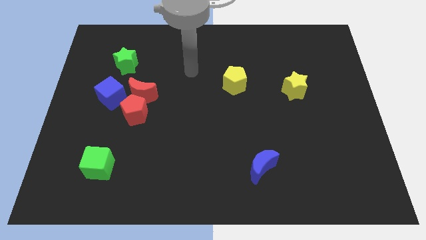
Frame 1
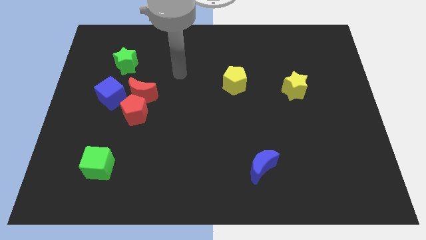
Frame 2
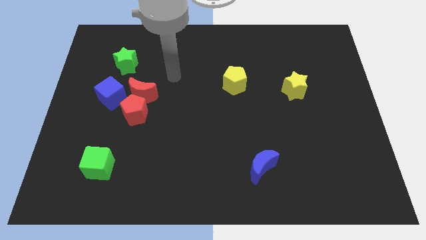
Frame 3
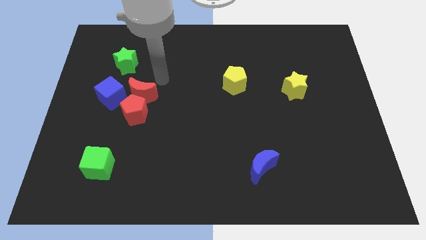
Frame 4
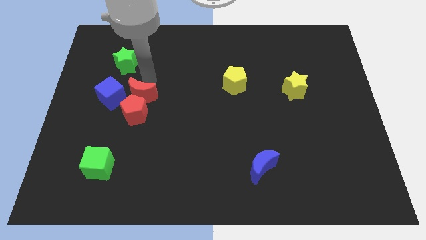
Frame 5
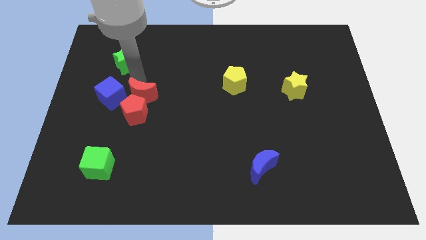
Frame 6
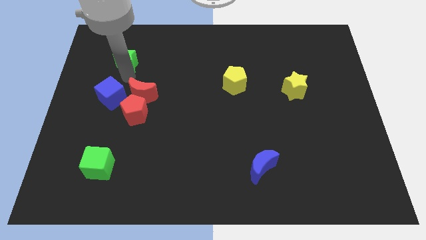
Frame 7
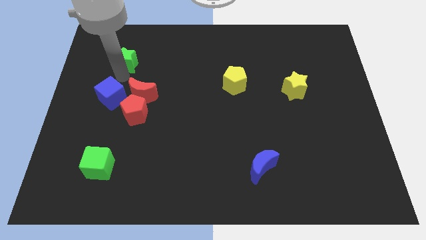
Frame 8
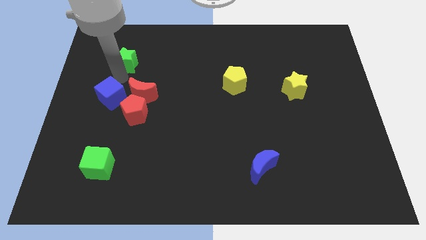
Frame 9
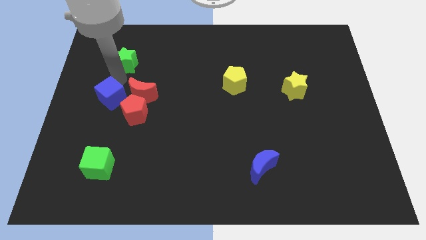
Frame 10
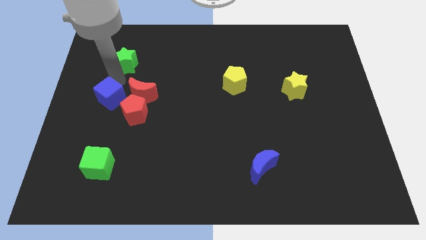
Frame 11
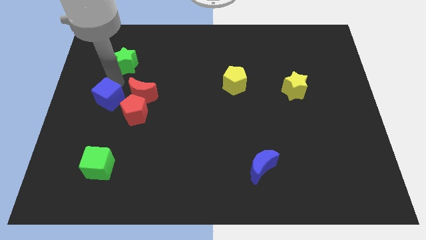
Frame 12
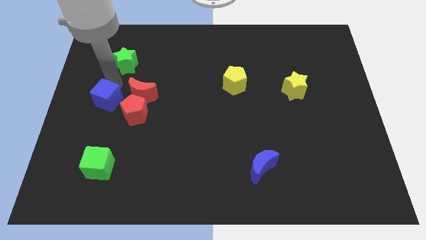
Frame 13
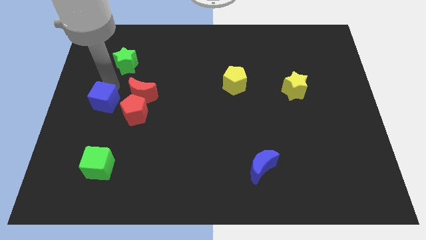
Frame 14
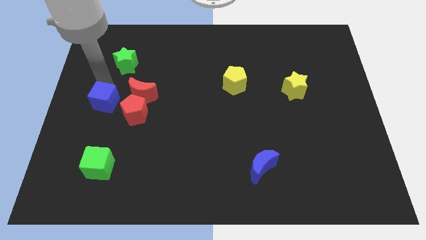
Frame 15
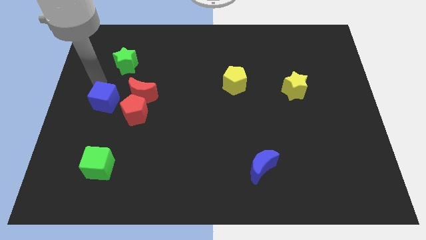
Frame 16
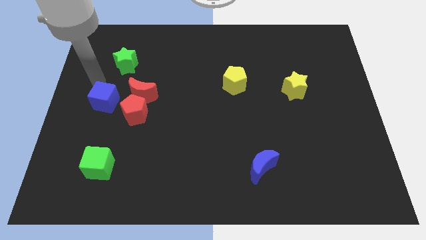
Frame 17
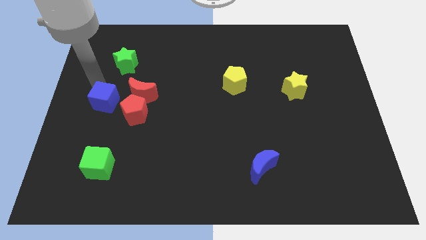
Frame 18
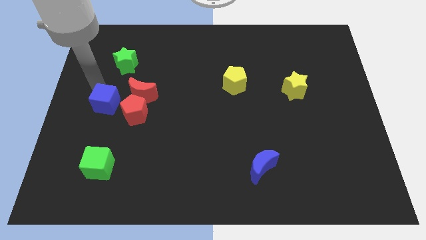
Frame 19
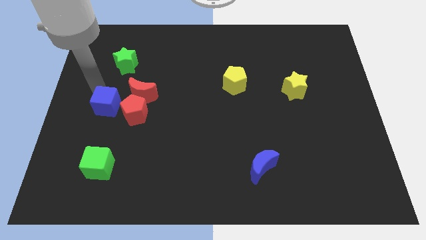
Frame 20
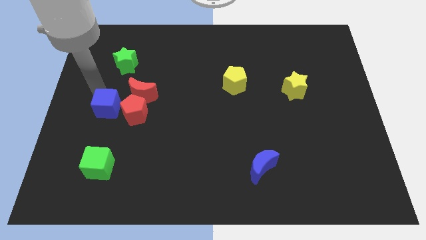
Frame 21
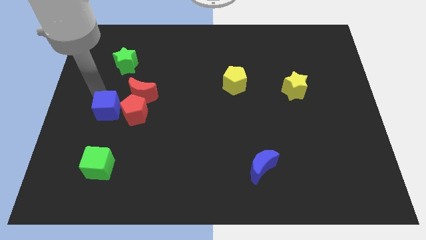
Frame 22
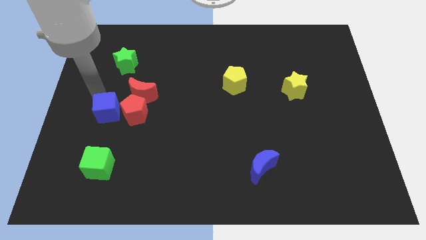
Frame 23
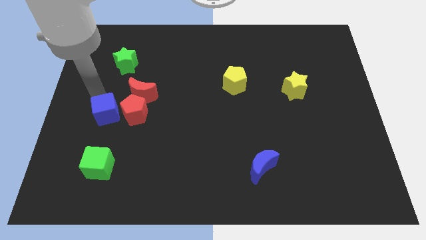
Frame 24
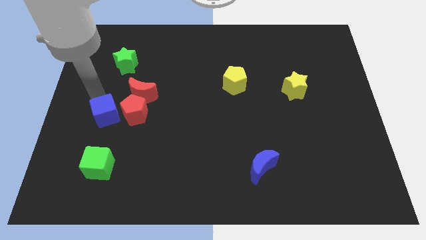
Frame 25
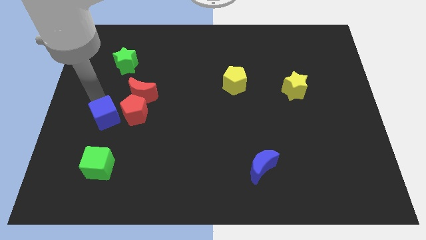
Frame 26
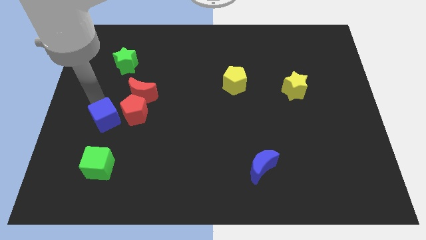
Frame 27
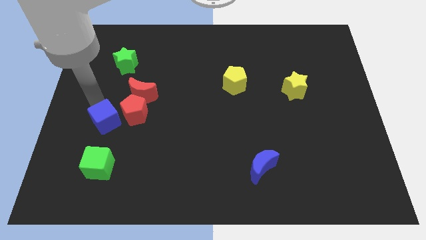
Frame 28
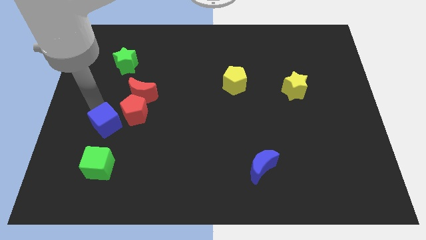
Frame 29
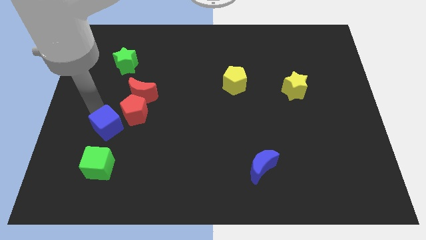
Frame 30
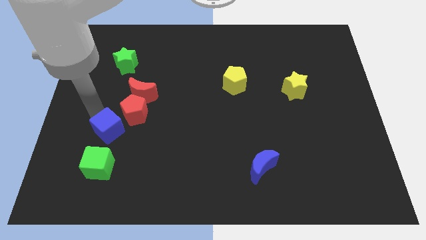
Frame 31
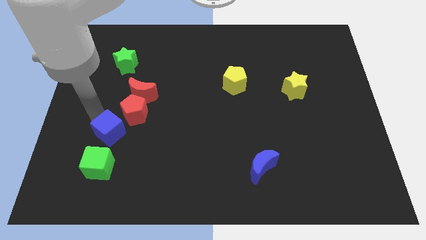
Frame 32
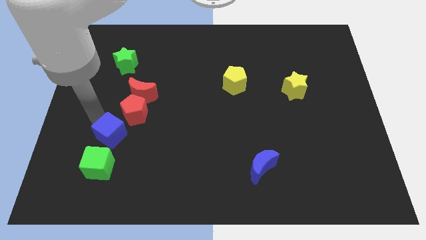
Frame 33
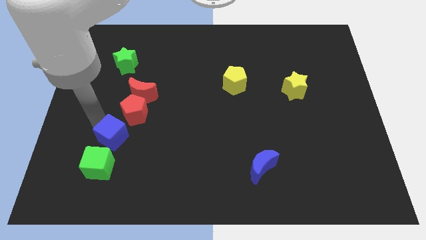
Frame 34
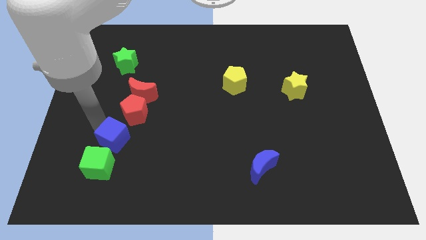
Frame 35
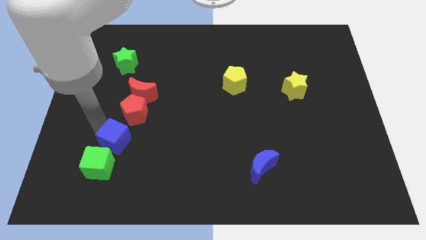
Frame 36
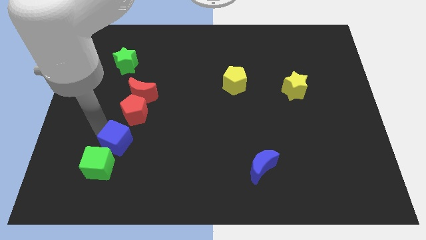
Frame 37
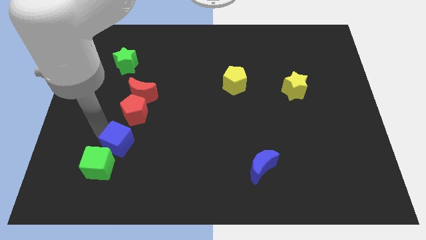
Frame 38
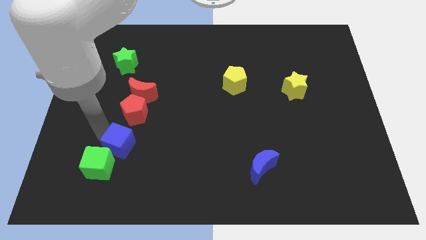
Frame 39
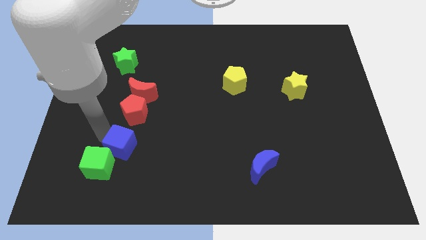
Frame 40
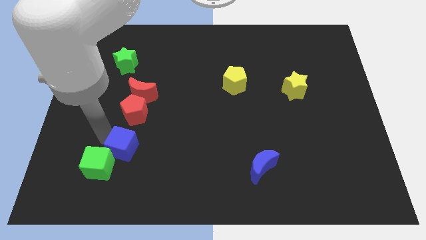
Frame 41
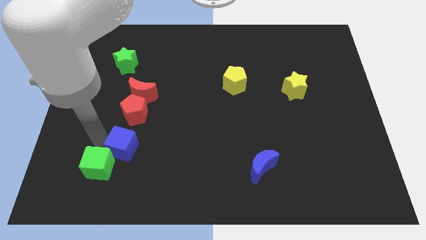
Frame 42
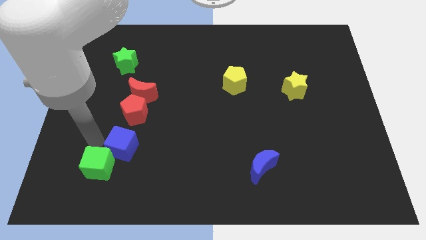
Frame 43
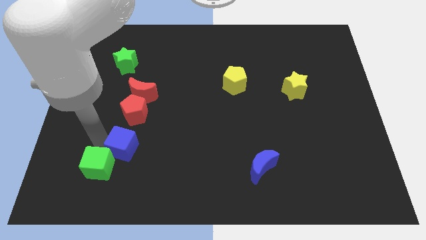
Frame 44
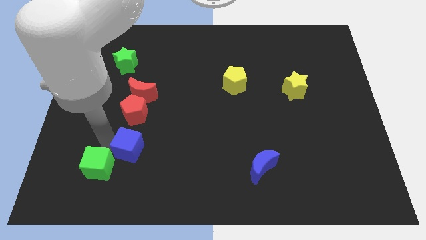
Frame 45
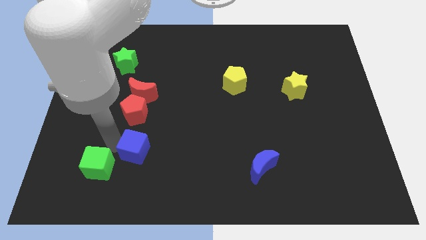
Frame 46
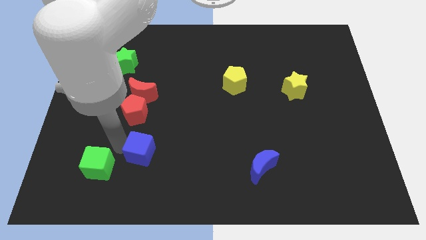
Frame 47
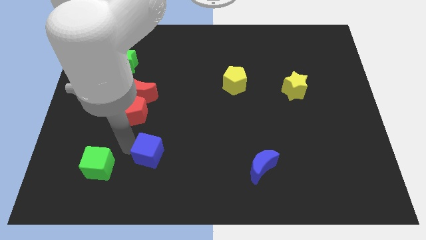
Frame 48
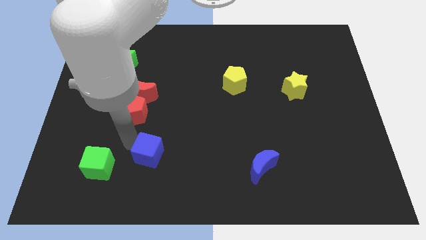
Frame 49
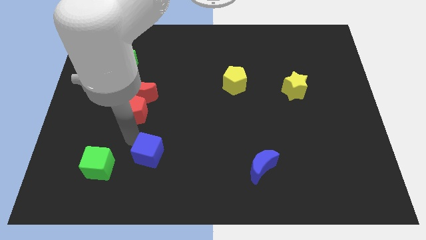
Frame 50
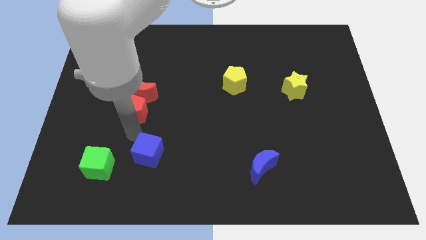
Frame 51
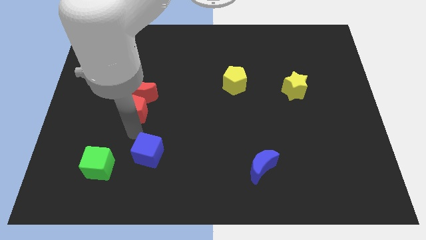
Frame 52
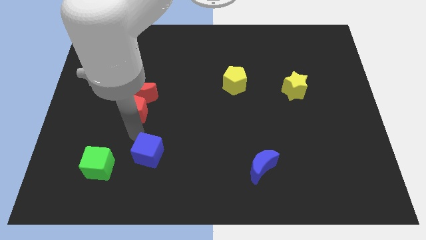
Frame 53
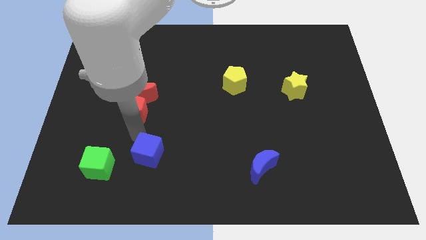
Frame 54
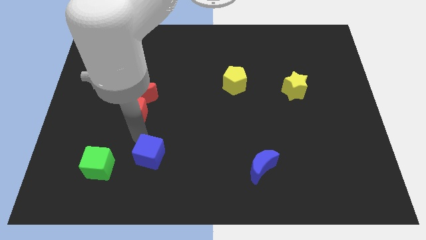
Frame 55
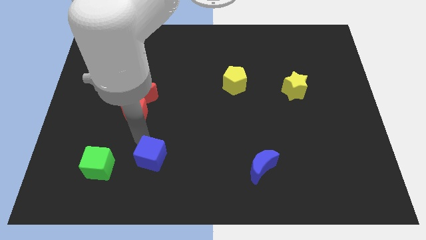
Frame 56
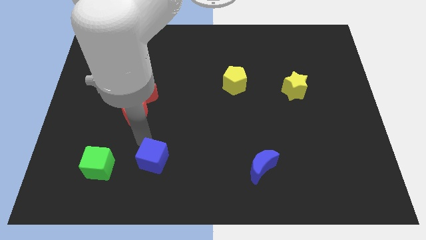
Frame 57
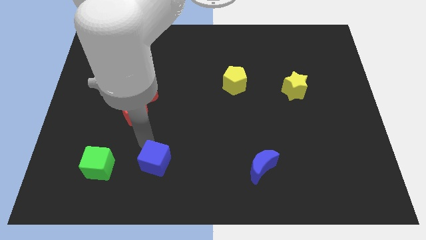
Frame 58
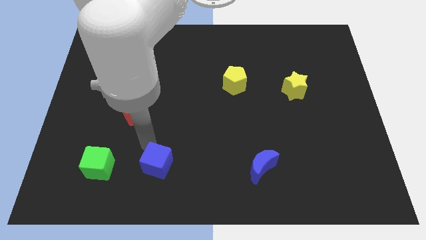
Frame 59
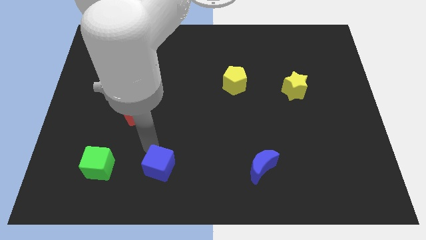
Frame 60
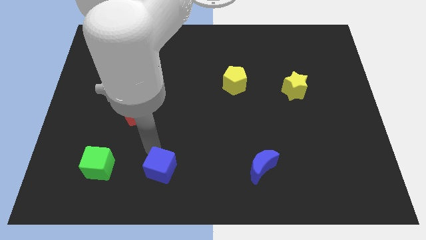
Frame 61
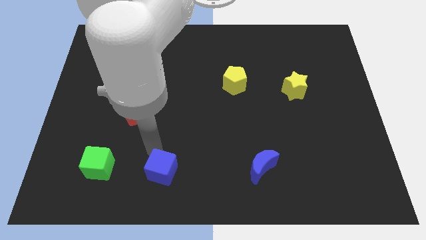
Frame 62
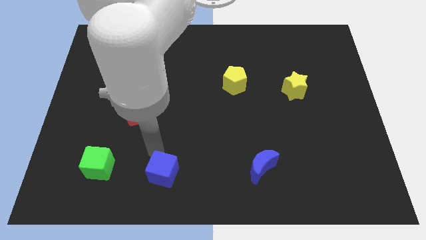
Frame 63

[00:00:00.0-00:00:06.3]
push the blue cube to the bottom side

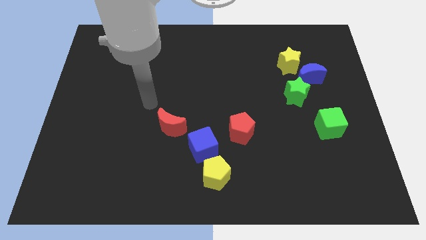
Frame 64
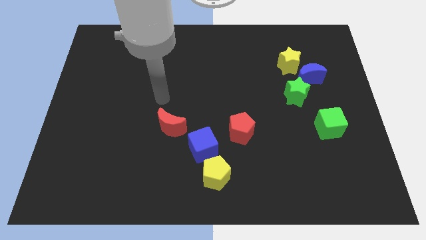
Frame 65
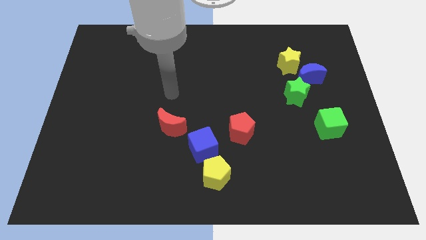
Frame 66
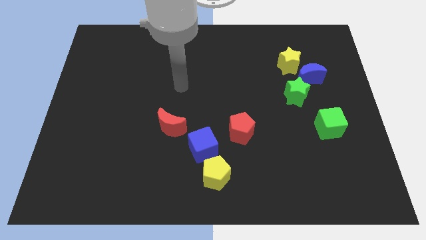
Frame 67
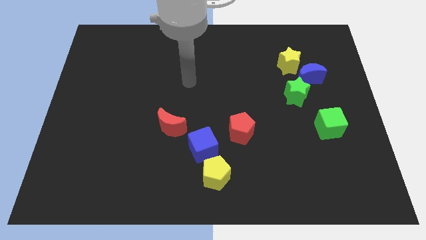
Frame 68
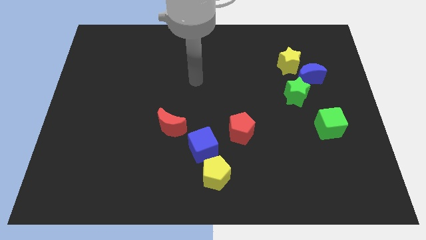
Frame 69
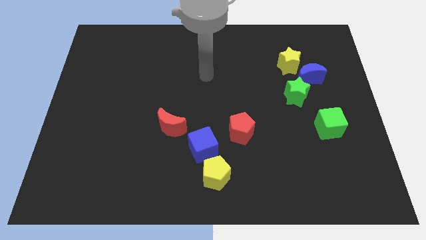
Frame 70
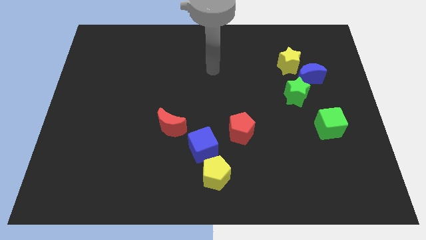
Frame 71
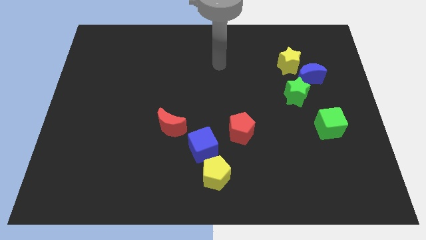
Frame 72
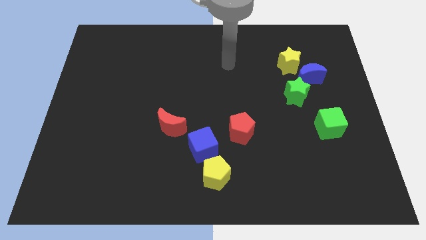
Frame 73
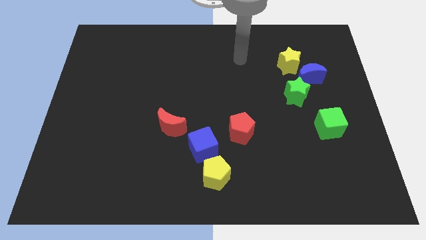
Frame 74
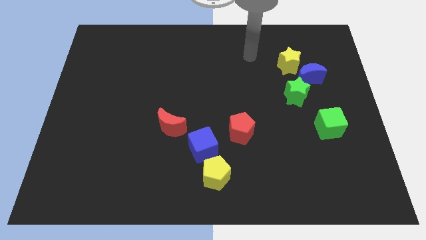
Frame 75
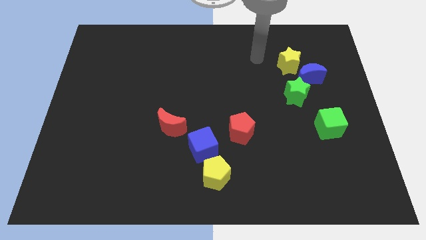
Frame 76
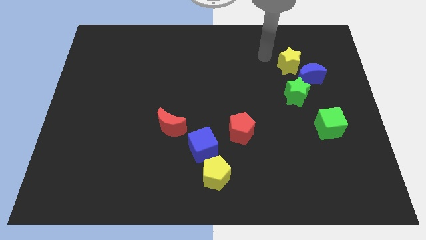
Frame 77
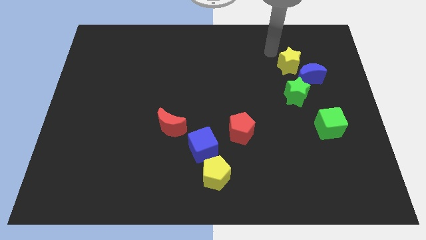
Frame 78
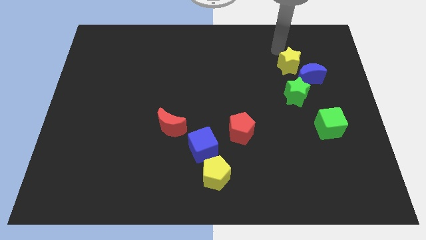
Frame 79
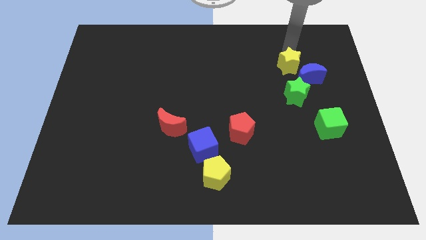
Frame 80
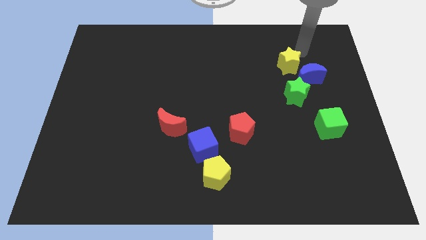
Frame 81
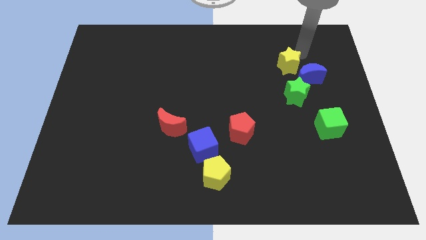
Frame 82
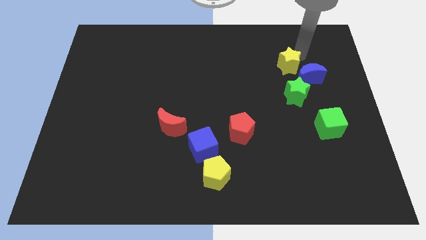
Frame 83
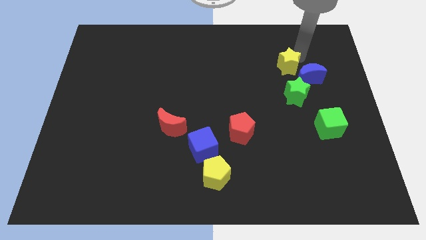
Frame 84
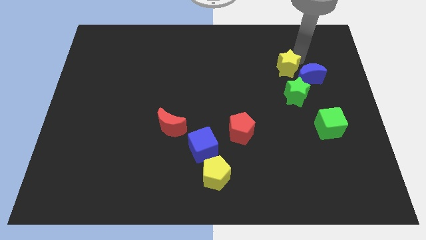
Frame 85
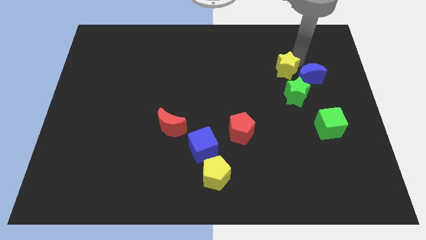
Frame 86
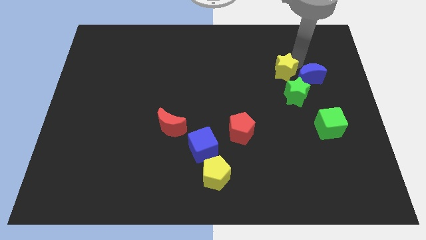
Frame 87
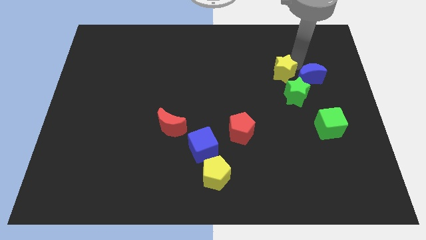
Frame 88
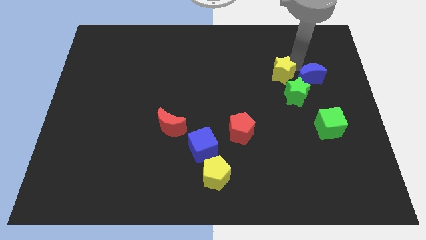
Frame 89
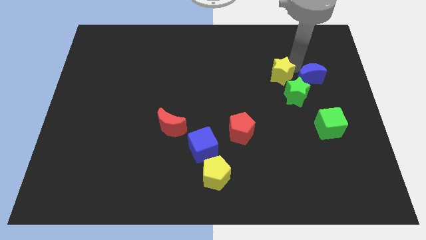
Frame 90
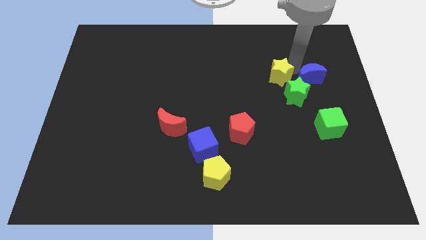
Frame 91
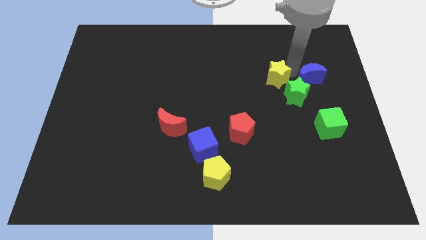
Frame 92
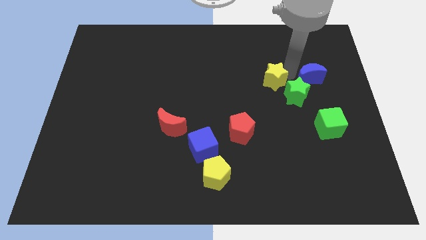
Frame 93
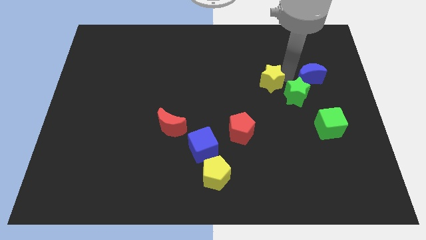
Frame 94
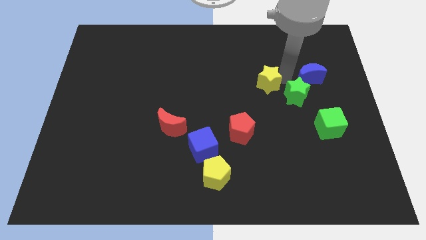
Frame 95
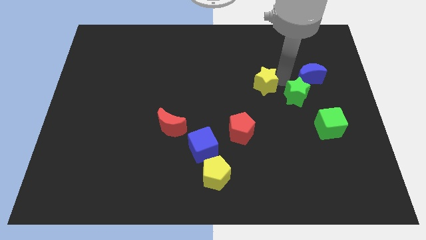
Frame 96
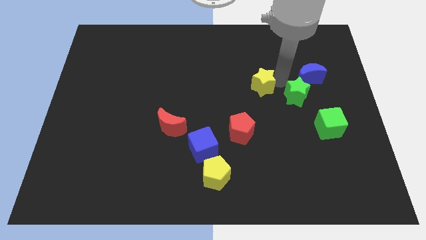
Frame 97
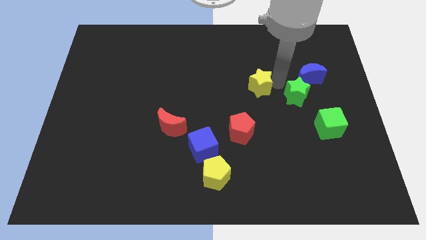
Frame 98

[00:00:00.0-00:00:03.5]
put the yellow star to the center of the board
